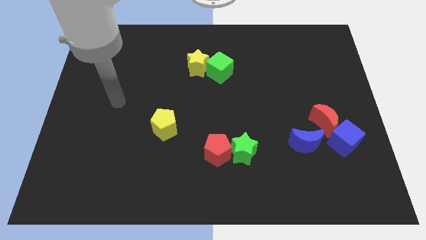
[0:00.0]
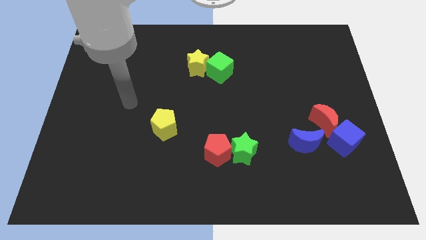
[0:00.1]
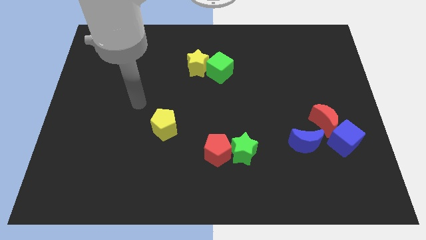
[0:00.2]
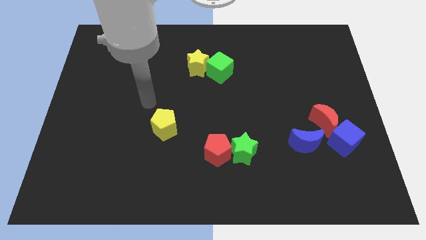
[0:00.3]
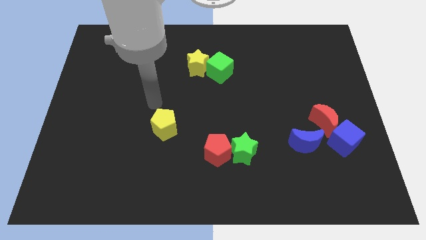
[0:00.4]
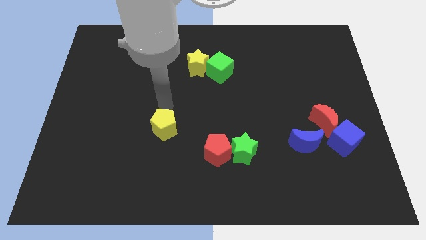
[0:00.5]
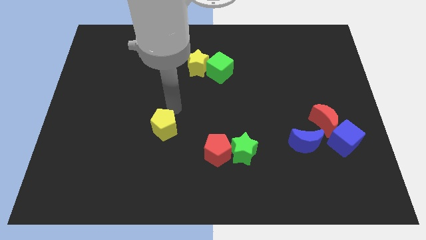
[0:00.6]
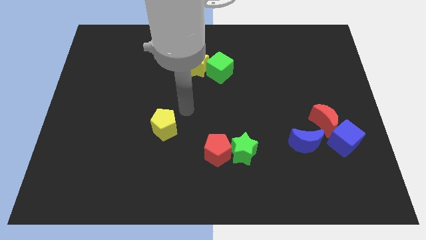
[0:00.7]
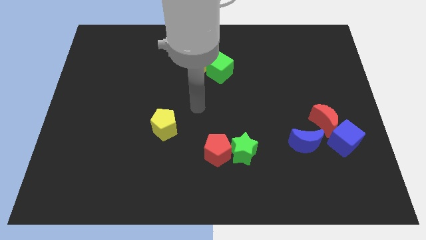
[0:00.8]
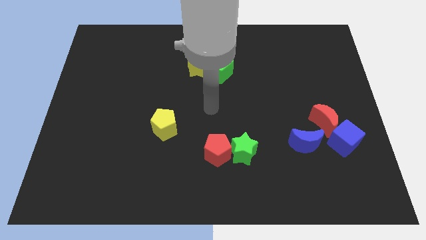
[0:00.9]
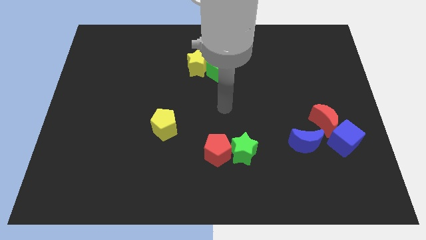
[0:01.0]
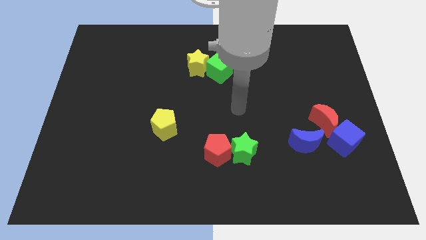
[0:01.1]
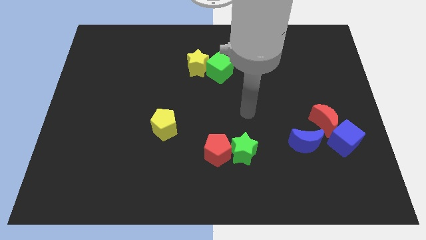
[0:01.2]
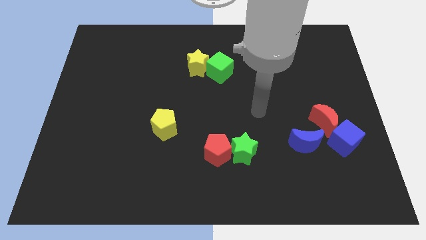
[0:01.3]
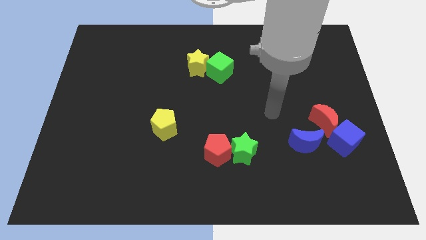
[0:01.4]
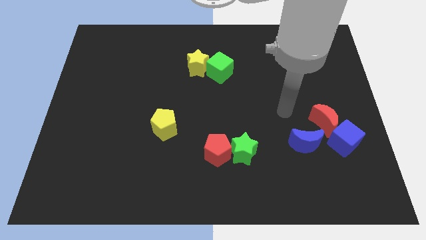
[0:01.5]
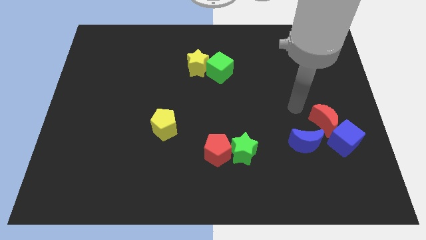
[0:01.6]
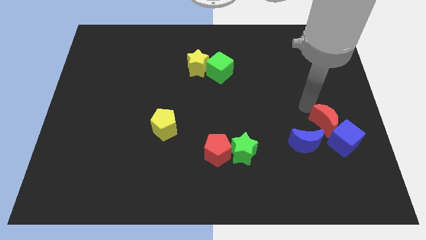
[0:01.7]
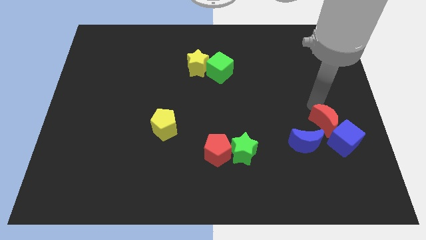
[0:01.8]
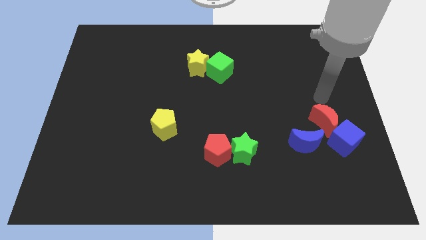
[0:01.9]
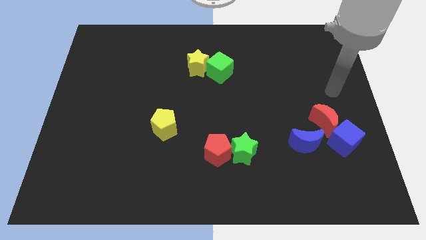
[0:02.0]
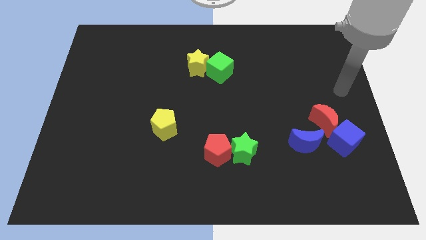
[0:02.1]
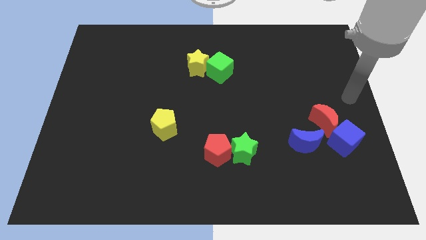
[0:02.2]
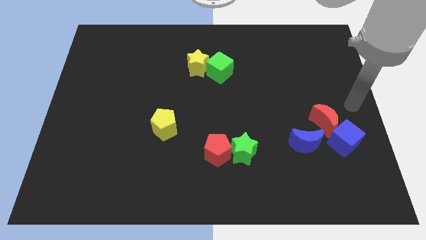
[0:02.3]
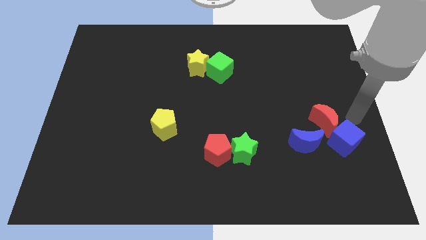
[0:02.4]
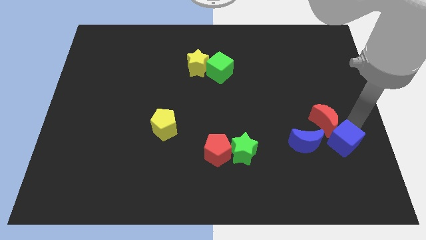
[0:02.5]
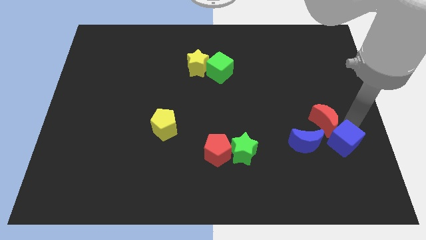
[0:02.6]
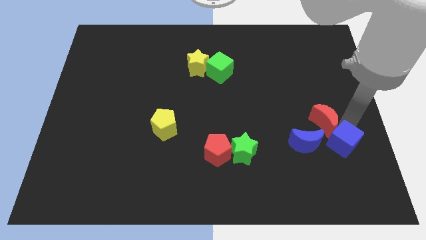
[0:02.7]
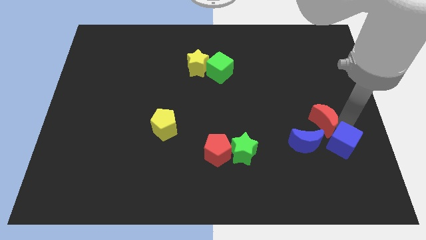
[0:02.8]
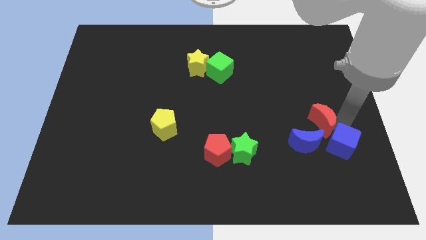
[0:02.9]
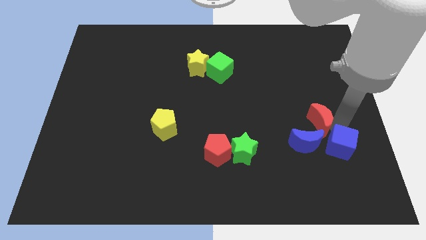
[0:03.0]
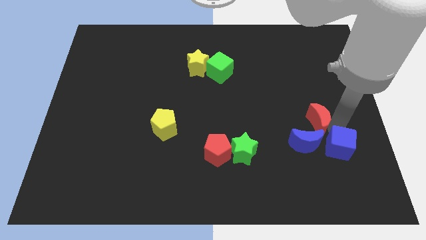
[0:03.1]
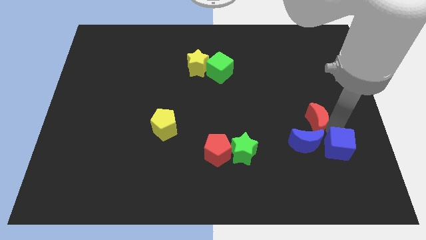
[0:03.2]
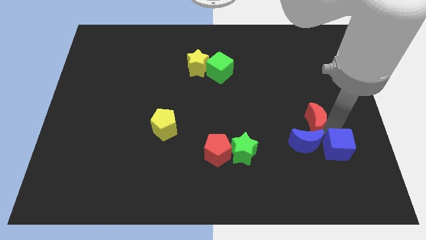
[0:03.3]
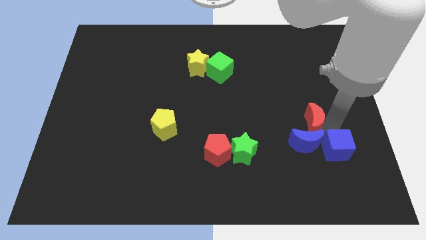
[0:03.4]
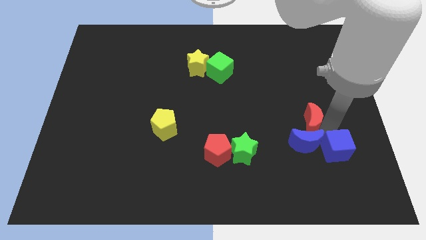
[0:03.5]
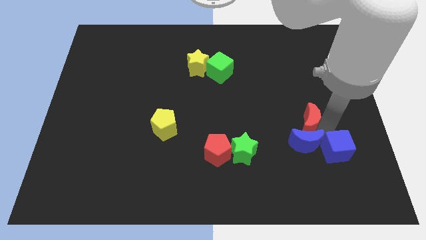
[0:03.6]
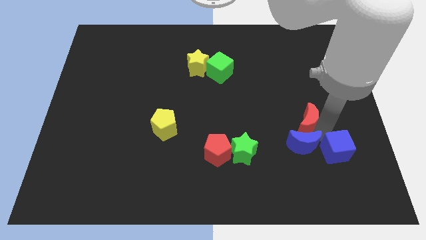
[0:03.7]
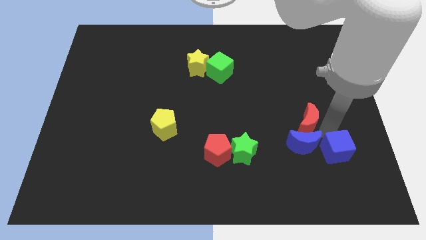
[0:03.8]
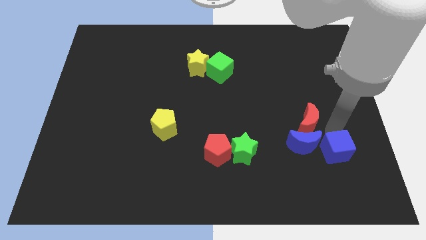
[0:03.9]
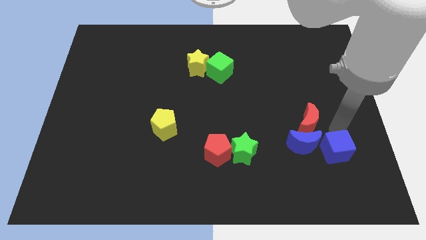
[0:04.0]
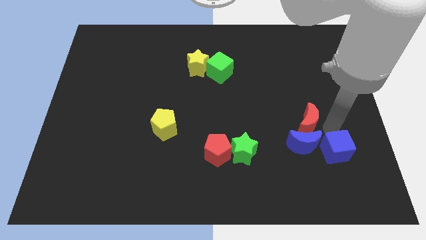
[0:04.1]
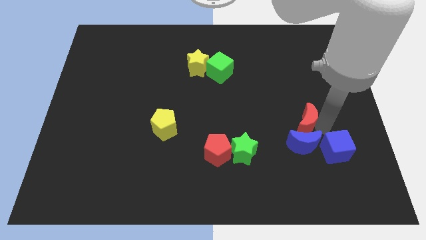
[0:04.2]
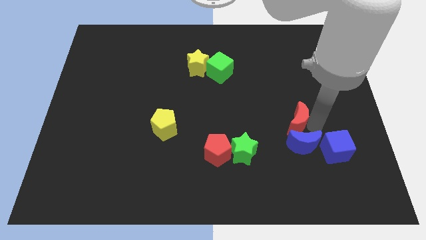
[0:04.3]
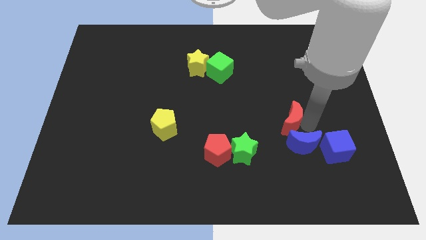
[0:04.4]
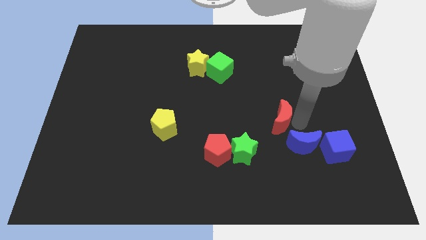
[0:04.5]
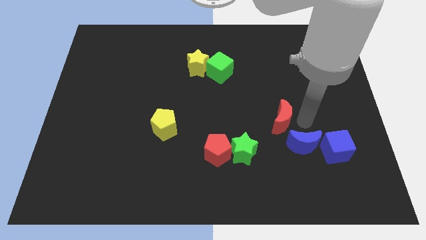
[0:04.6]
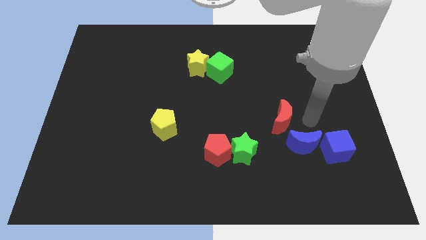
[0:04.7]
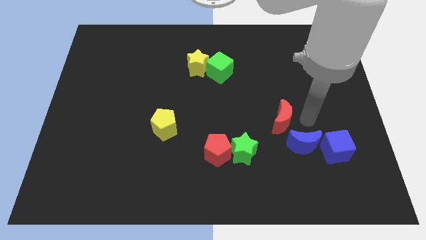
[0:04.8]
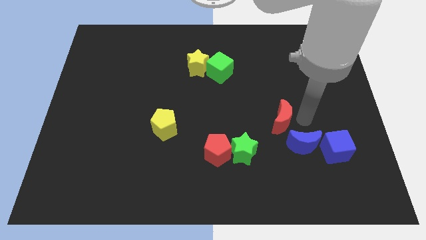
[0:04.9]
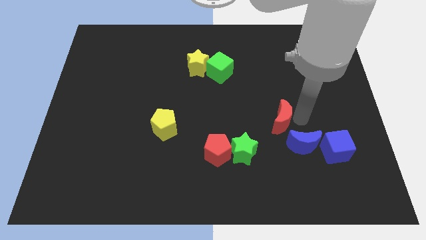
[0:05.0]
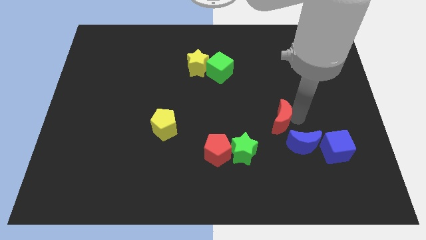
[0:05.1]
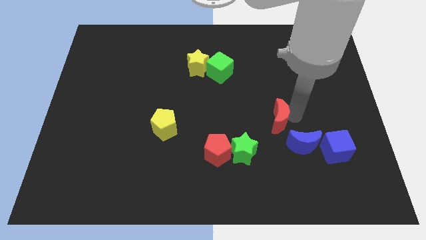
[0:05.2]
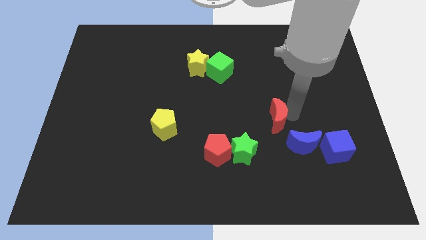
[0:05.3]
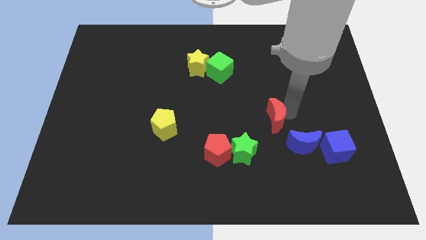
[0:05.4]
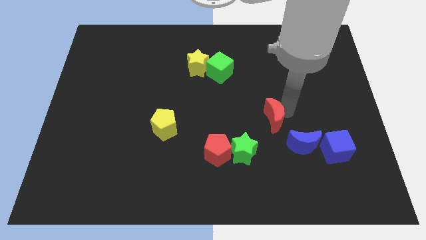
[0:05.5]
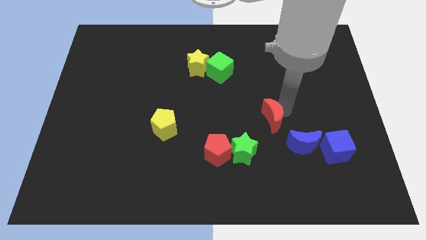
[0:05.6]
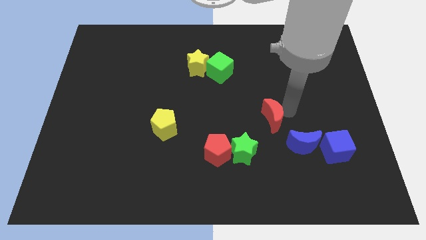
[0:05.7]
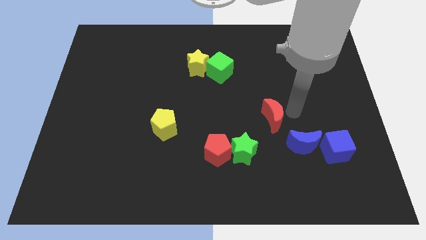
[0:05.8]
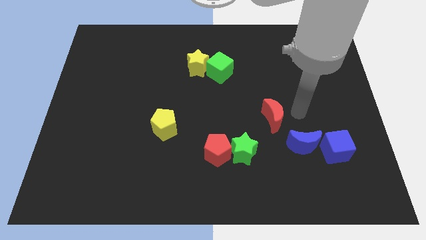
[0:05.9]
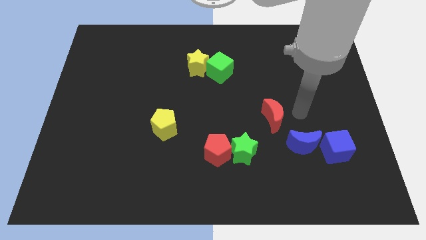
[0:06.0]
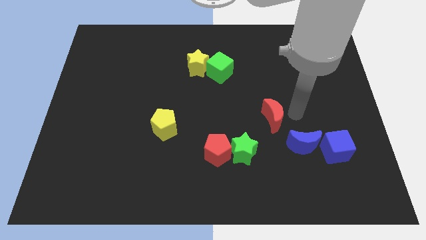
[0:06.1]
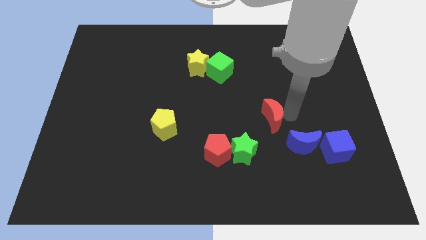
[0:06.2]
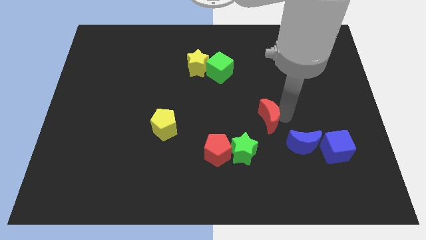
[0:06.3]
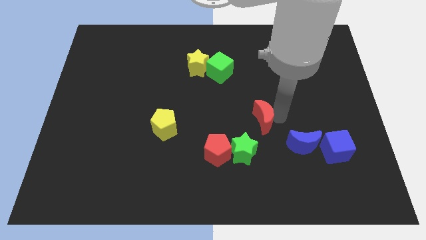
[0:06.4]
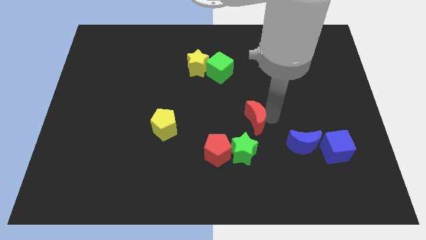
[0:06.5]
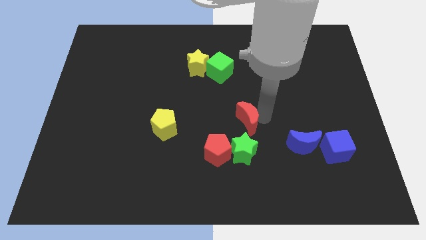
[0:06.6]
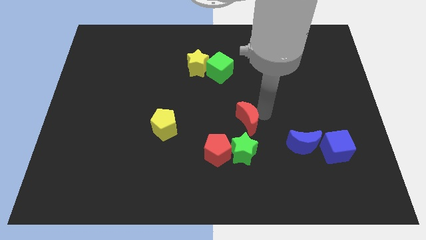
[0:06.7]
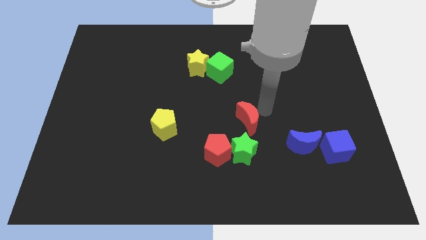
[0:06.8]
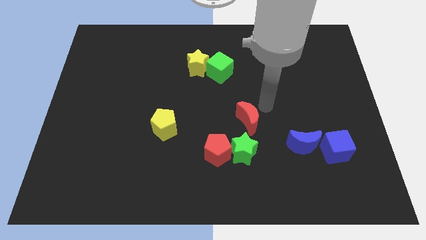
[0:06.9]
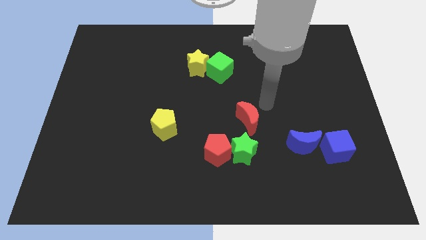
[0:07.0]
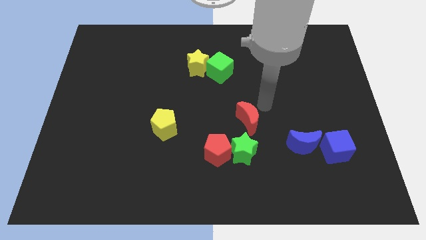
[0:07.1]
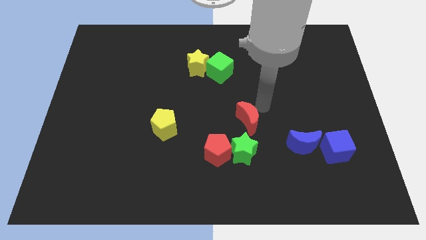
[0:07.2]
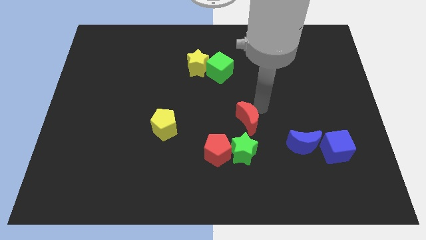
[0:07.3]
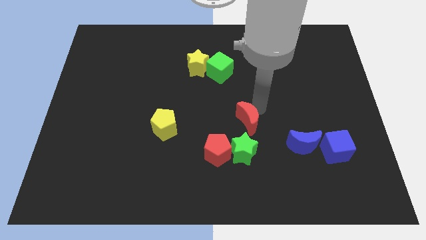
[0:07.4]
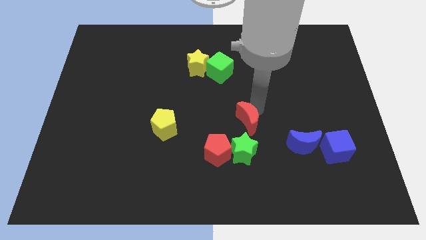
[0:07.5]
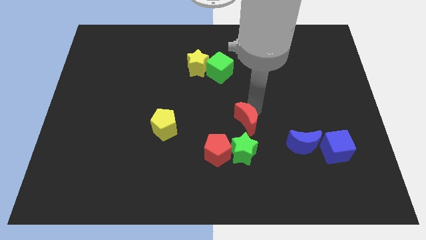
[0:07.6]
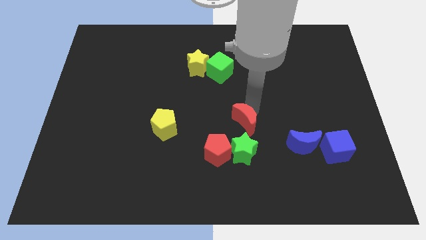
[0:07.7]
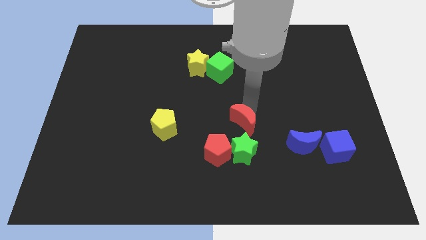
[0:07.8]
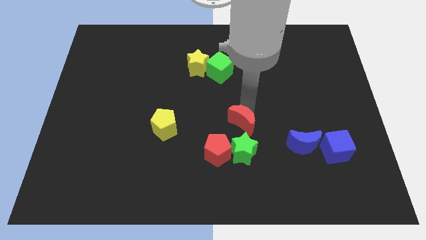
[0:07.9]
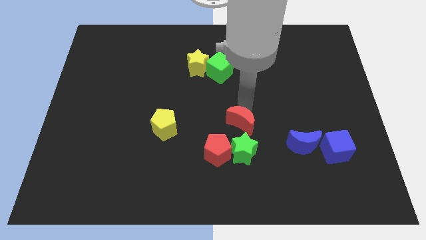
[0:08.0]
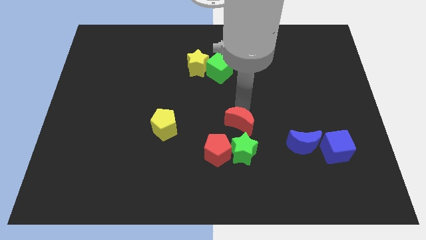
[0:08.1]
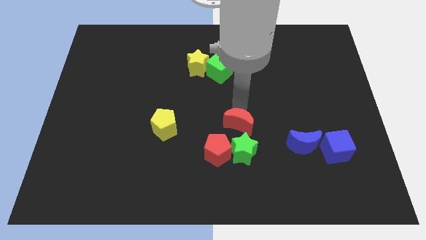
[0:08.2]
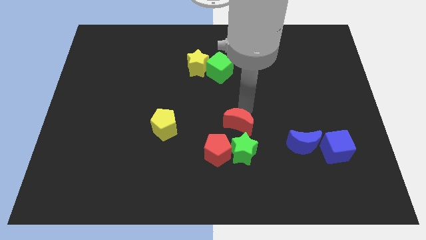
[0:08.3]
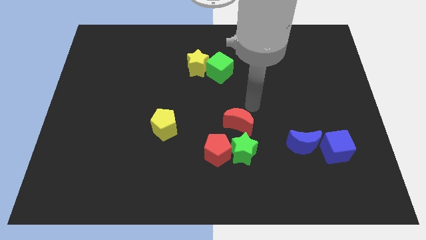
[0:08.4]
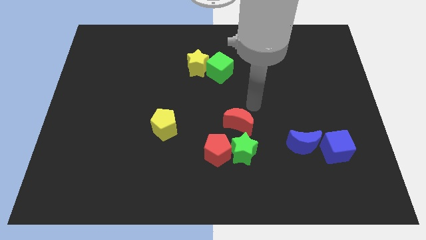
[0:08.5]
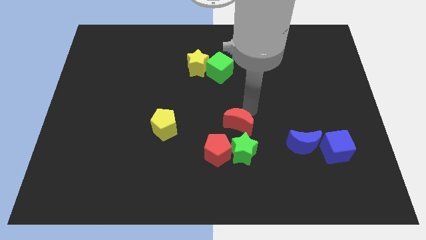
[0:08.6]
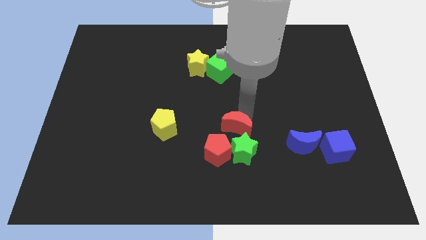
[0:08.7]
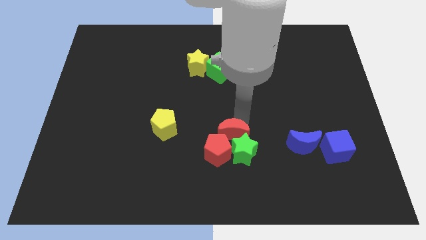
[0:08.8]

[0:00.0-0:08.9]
slide the red moon towards the red pentagon
